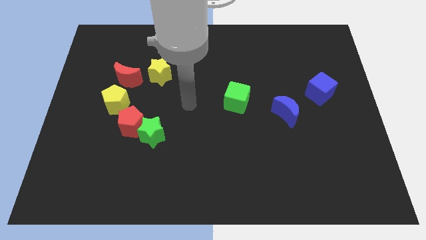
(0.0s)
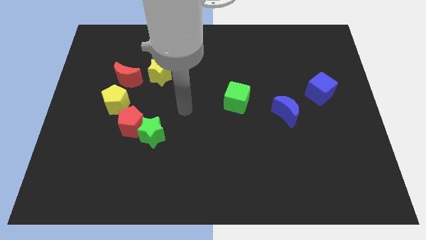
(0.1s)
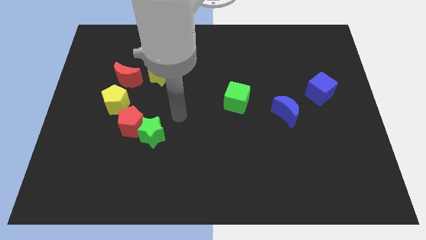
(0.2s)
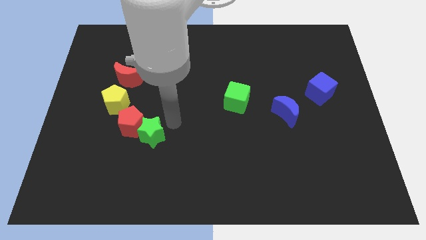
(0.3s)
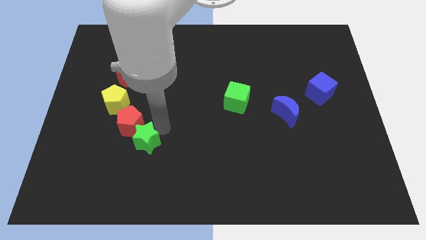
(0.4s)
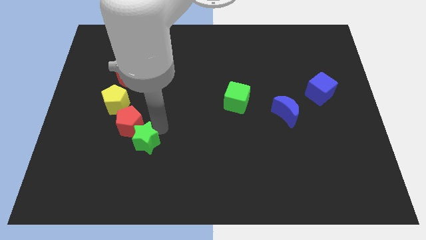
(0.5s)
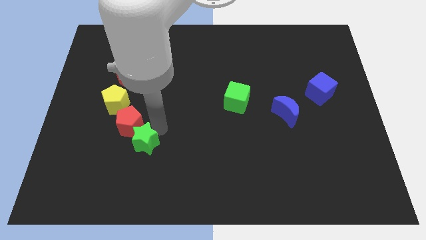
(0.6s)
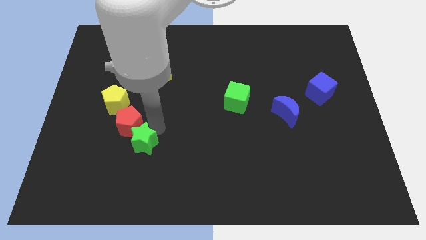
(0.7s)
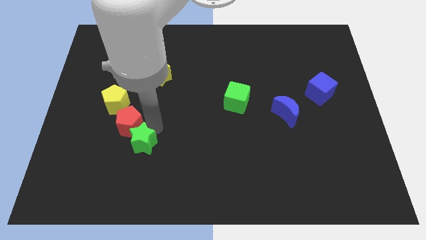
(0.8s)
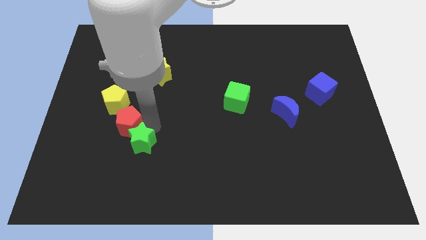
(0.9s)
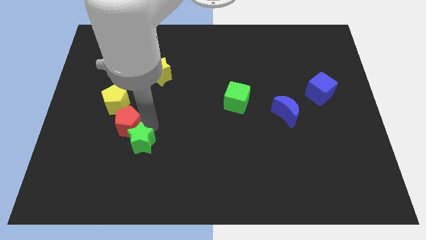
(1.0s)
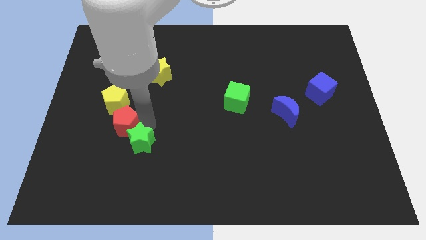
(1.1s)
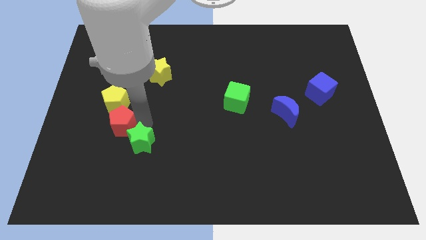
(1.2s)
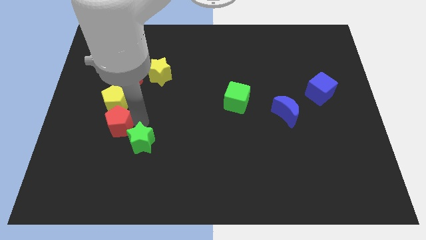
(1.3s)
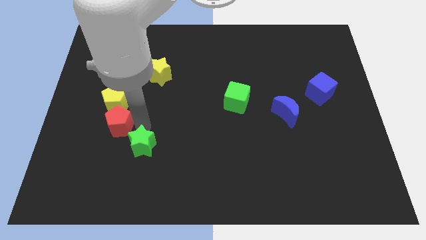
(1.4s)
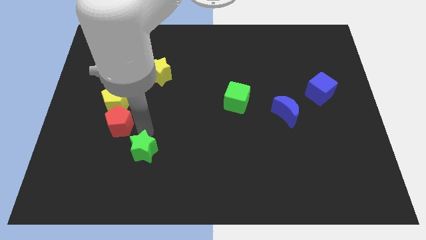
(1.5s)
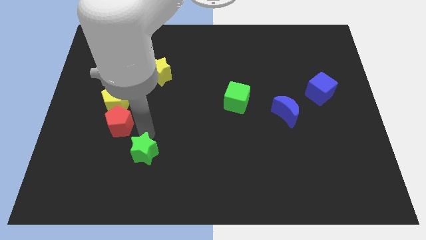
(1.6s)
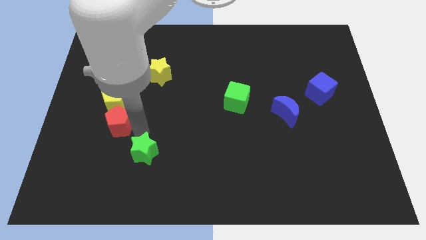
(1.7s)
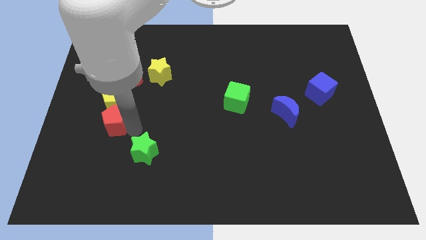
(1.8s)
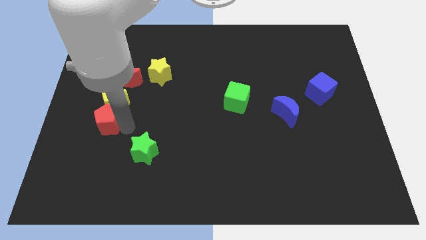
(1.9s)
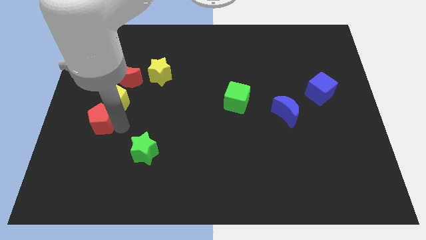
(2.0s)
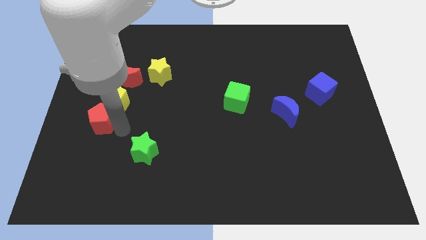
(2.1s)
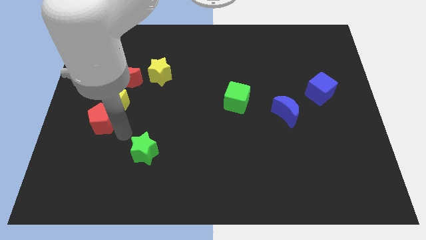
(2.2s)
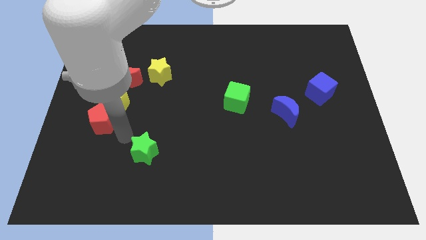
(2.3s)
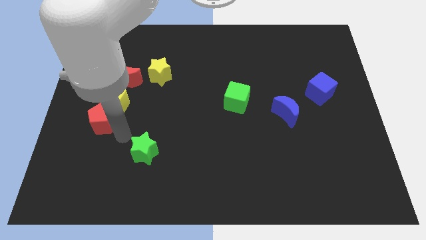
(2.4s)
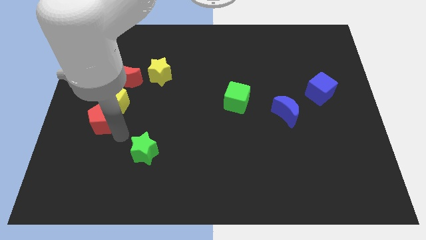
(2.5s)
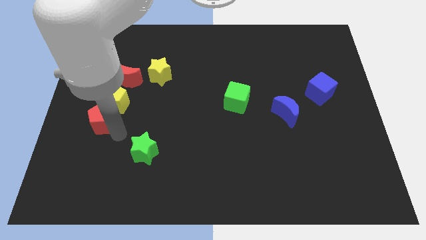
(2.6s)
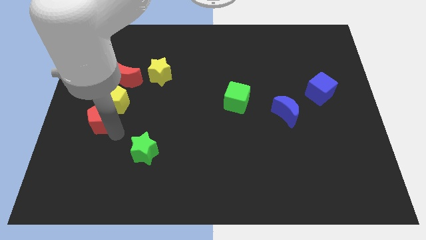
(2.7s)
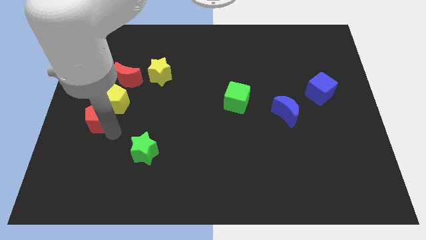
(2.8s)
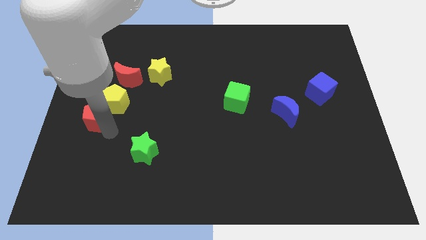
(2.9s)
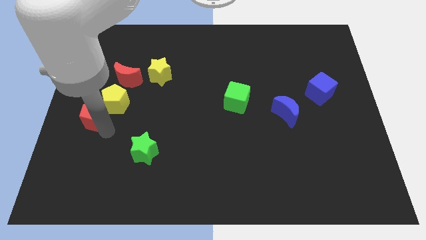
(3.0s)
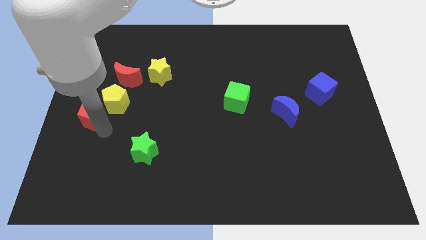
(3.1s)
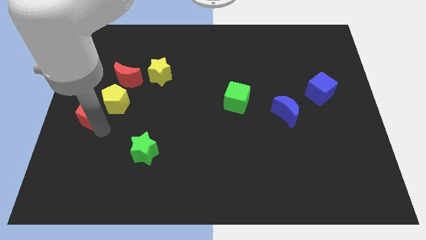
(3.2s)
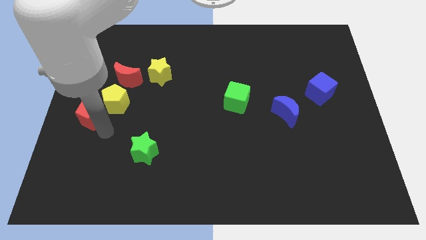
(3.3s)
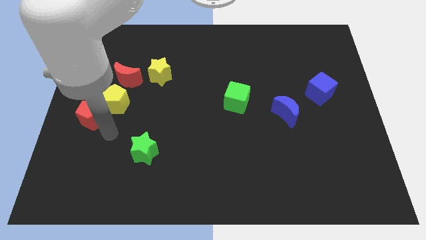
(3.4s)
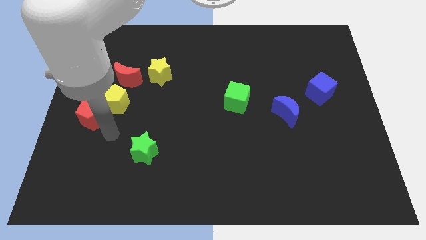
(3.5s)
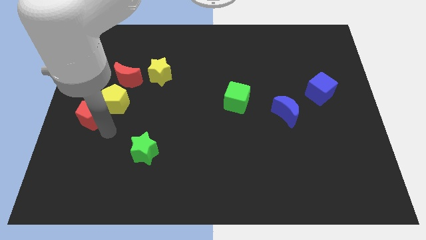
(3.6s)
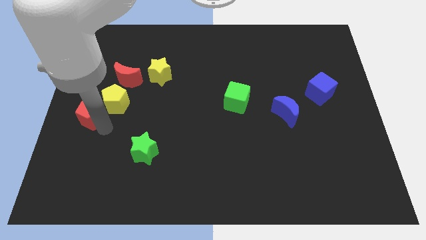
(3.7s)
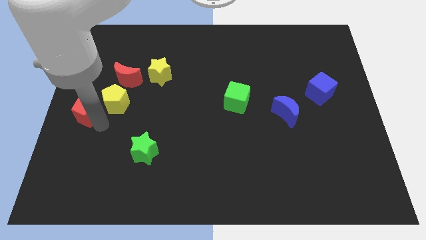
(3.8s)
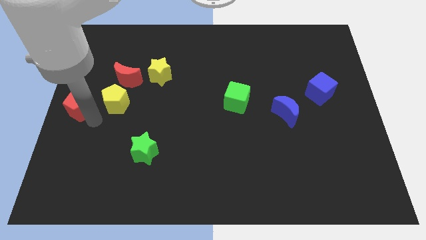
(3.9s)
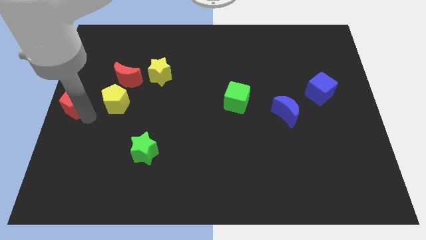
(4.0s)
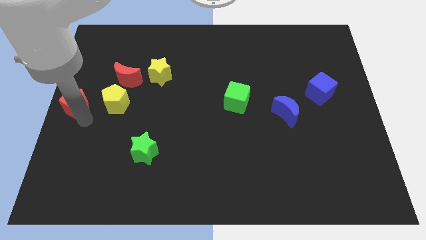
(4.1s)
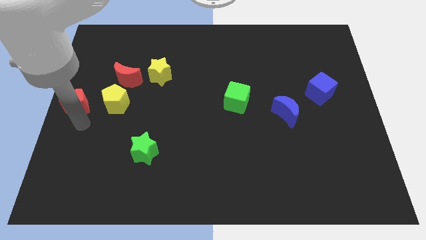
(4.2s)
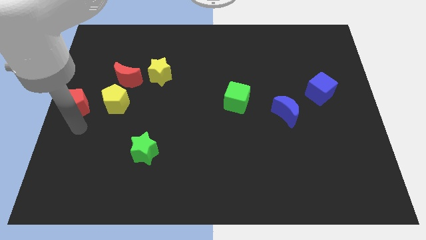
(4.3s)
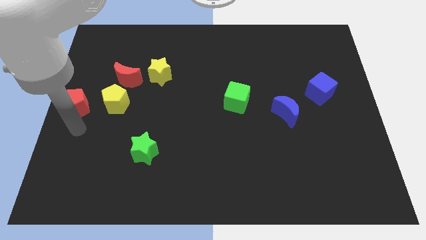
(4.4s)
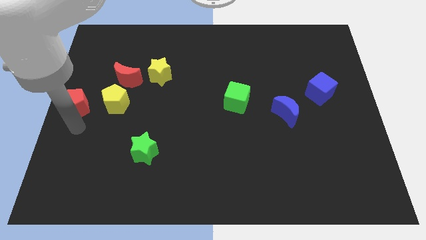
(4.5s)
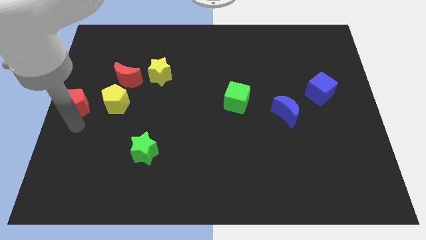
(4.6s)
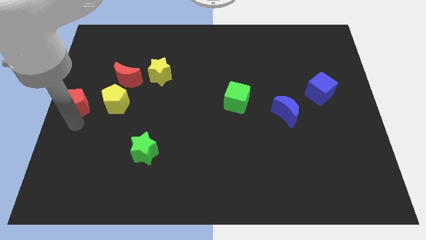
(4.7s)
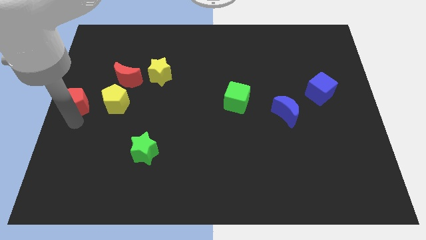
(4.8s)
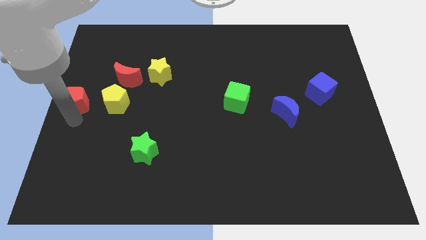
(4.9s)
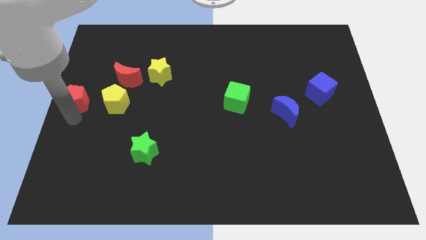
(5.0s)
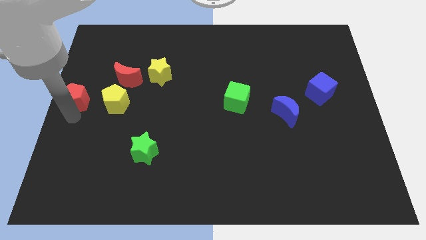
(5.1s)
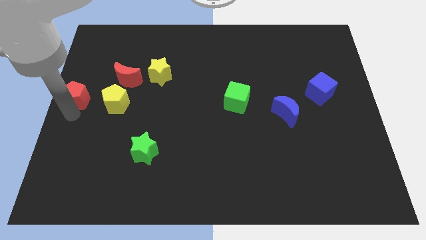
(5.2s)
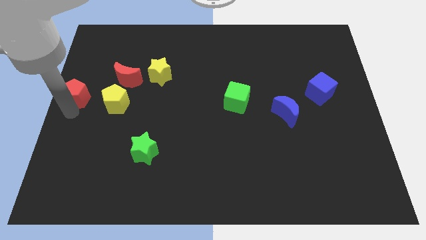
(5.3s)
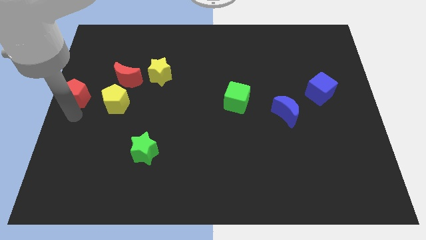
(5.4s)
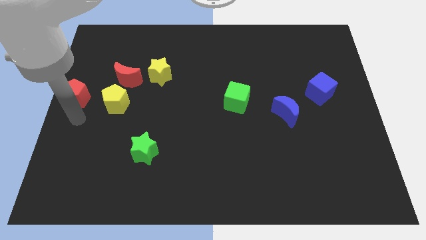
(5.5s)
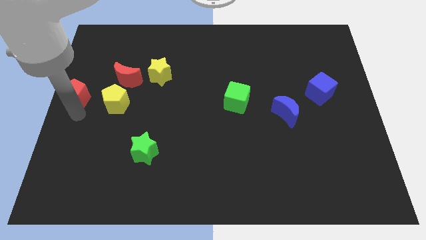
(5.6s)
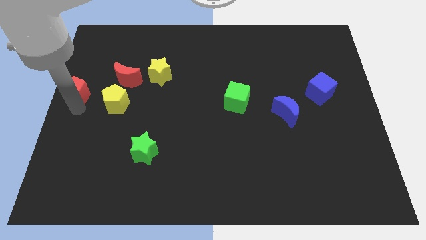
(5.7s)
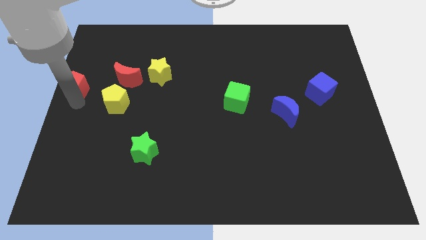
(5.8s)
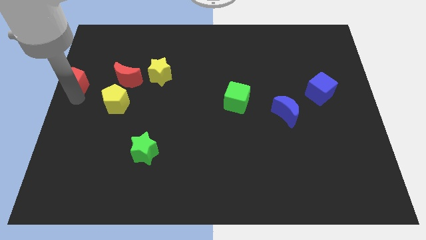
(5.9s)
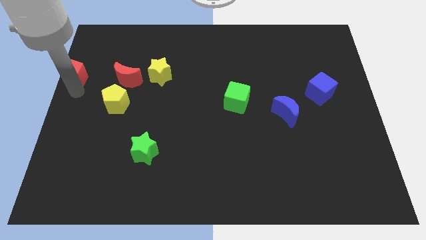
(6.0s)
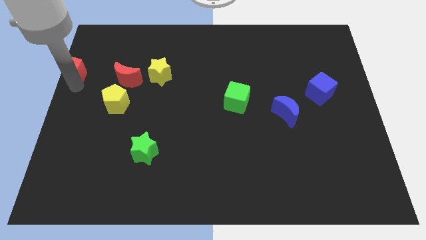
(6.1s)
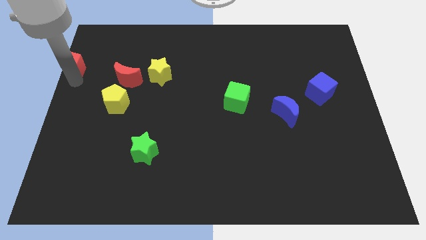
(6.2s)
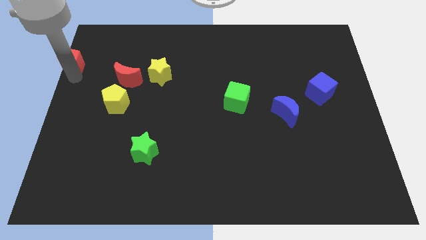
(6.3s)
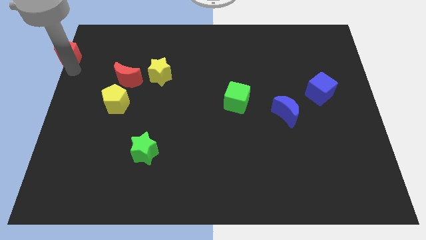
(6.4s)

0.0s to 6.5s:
put the red pentagon to the top left corner
